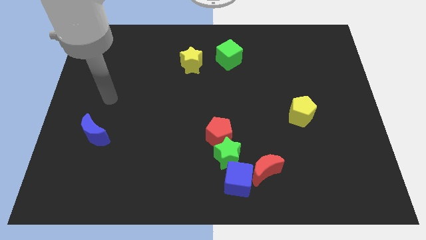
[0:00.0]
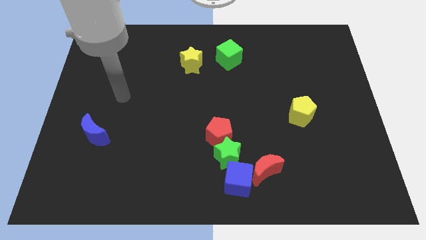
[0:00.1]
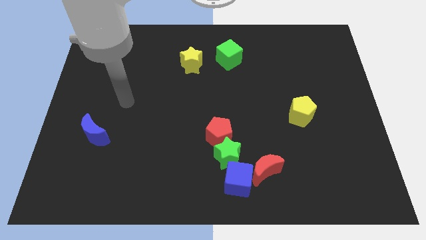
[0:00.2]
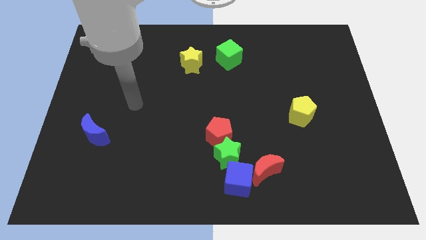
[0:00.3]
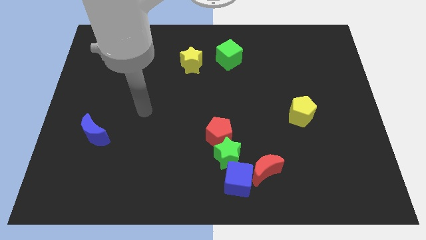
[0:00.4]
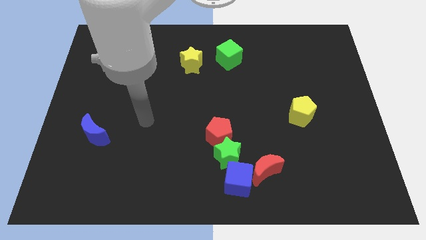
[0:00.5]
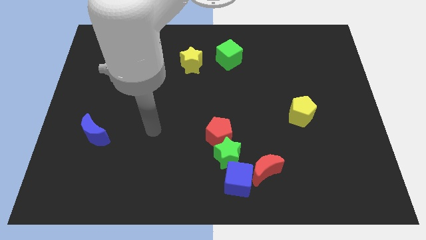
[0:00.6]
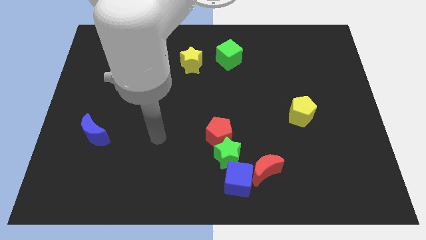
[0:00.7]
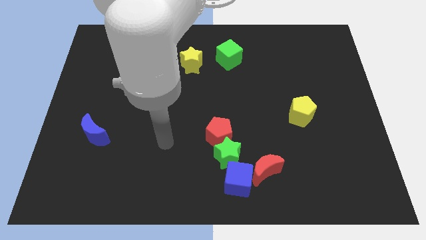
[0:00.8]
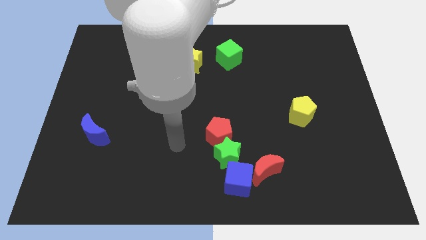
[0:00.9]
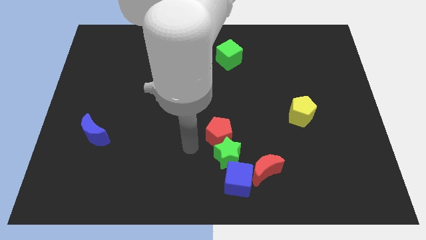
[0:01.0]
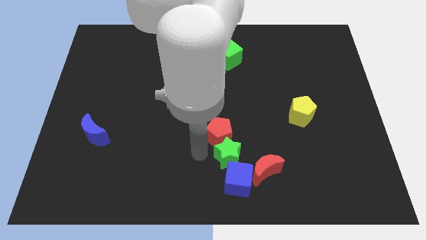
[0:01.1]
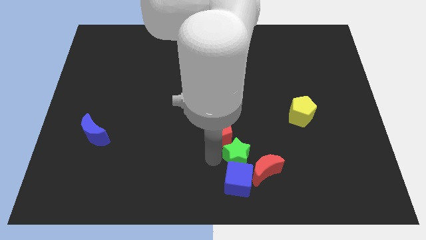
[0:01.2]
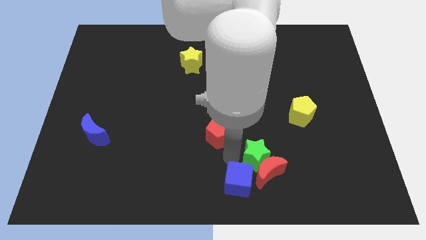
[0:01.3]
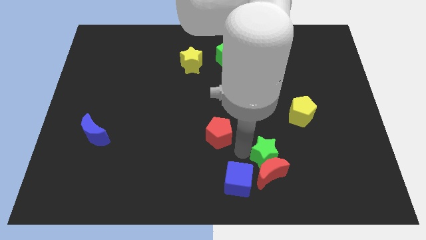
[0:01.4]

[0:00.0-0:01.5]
separate the red pentagon from the green star

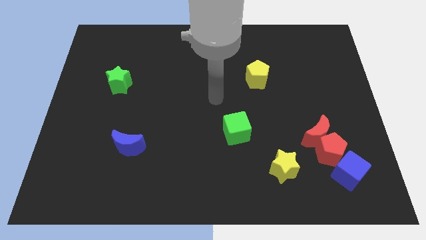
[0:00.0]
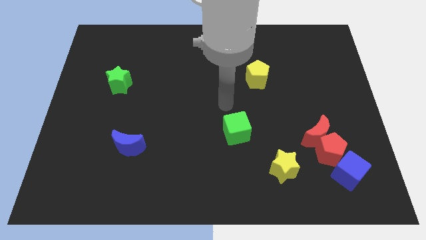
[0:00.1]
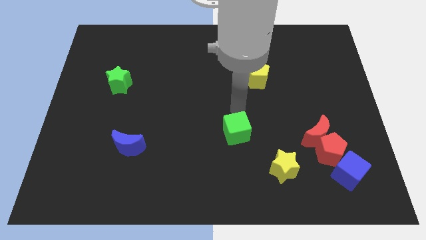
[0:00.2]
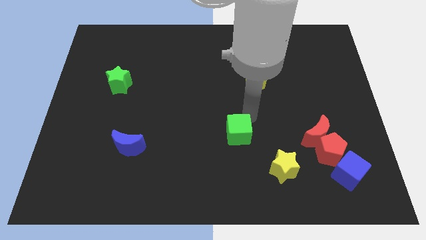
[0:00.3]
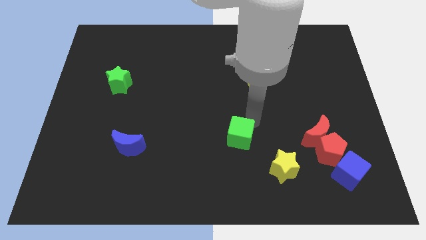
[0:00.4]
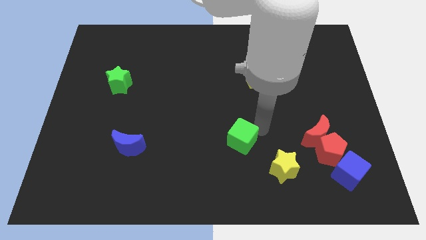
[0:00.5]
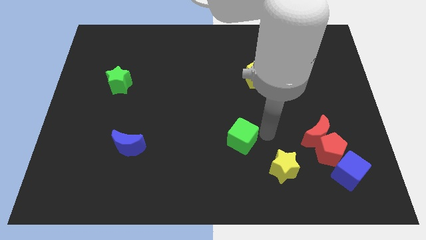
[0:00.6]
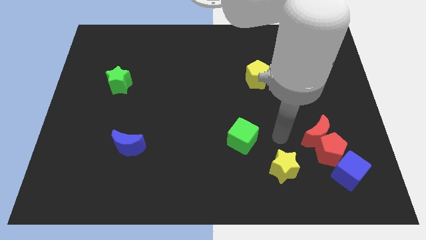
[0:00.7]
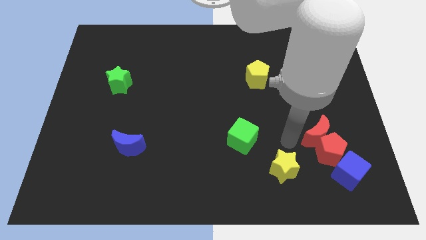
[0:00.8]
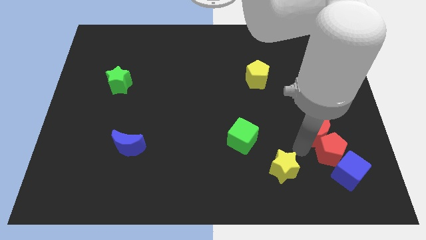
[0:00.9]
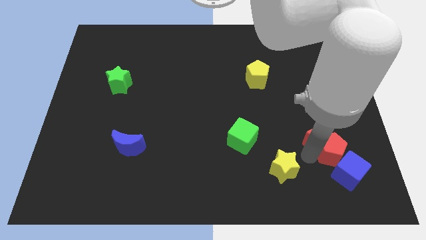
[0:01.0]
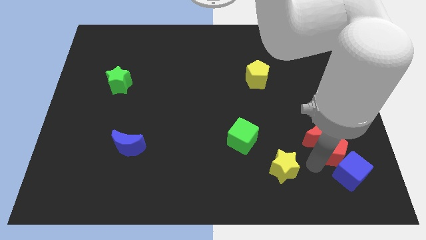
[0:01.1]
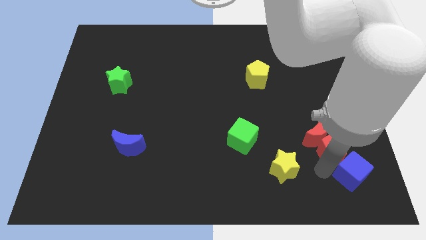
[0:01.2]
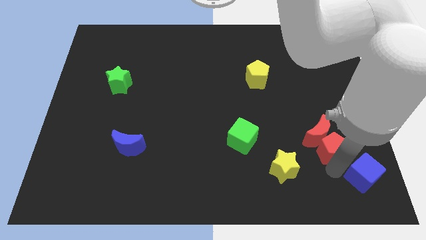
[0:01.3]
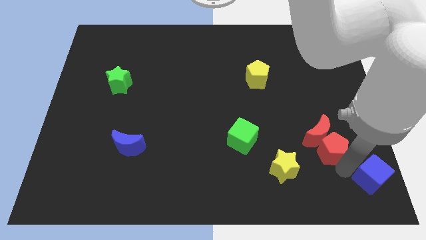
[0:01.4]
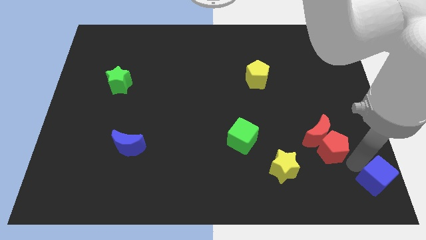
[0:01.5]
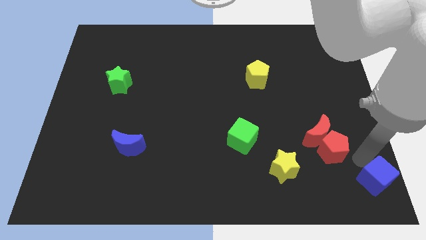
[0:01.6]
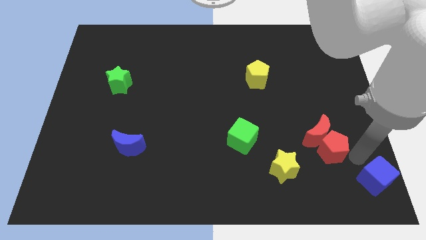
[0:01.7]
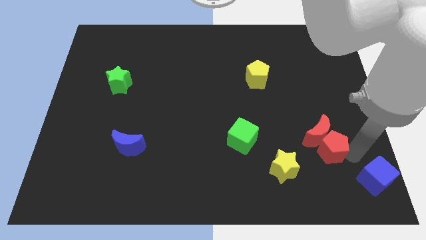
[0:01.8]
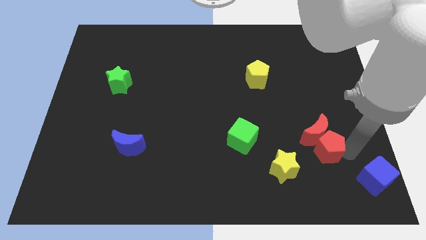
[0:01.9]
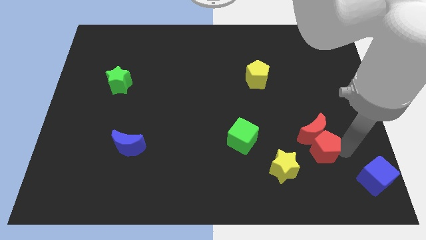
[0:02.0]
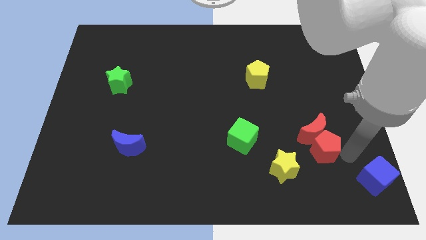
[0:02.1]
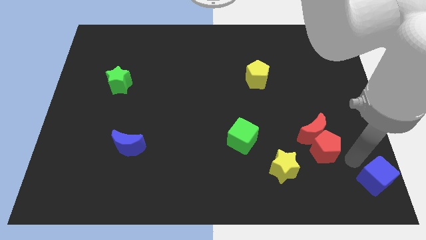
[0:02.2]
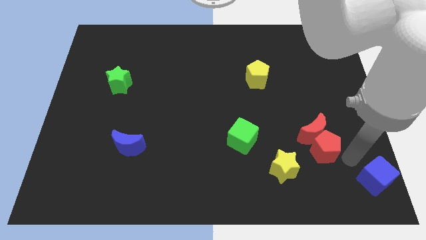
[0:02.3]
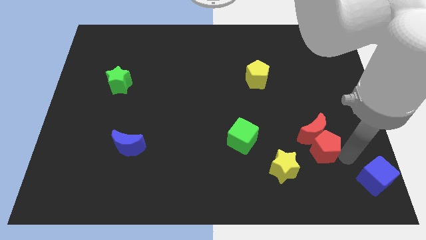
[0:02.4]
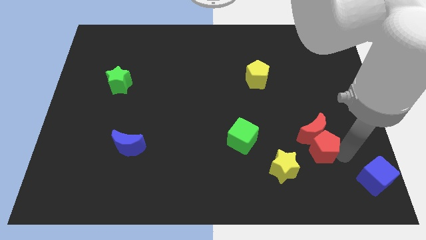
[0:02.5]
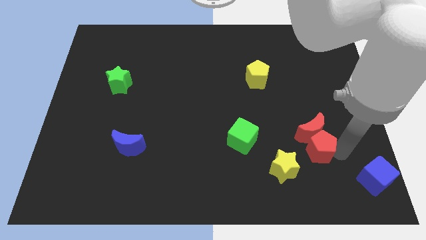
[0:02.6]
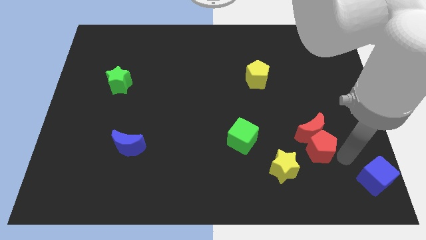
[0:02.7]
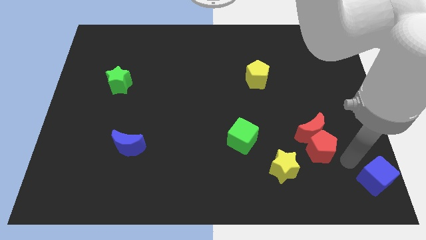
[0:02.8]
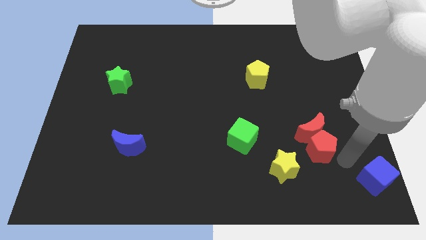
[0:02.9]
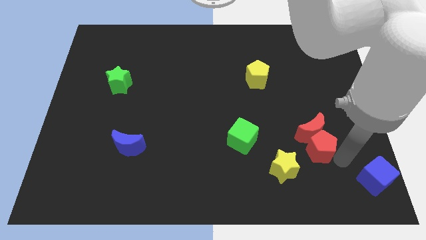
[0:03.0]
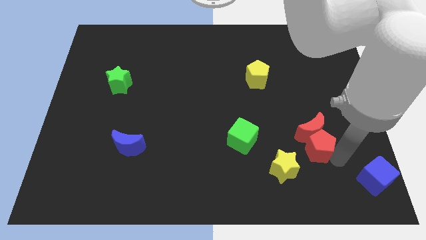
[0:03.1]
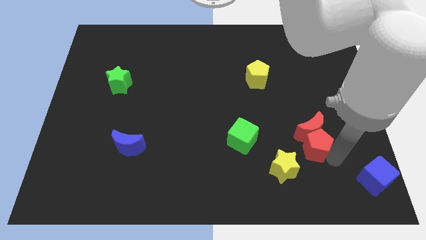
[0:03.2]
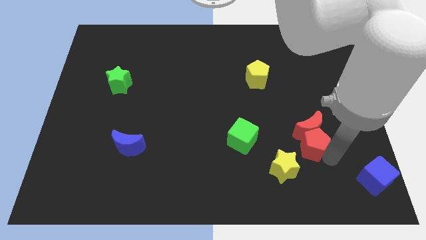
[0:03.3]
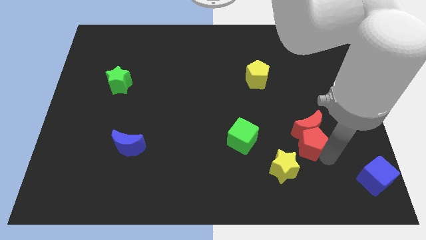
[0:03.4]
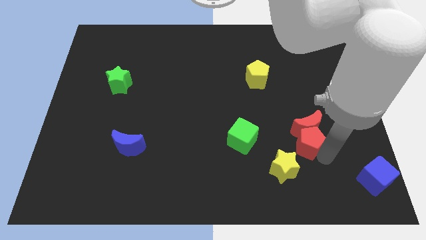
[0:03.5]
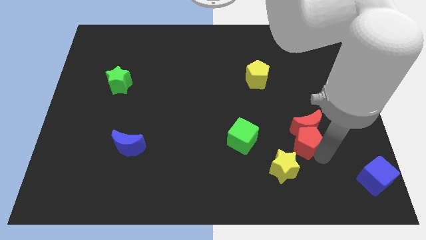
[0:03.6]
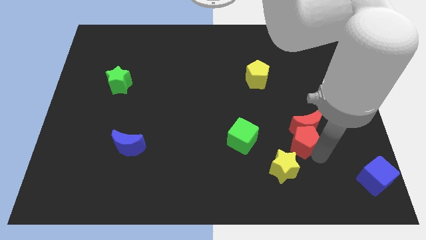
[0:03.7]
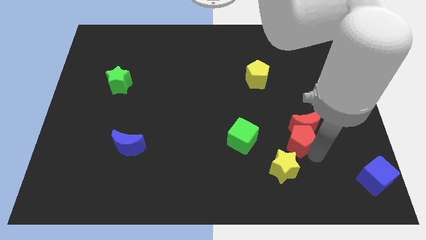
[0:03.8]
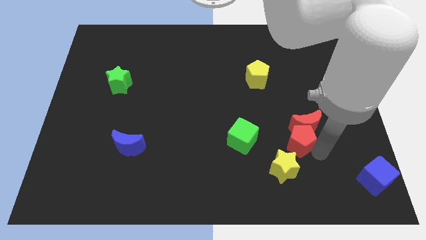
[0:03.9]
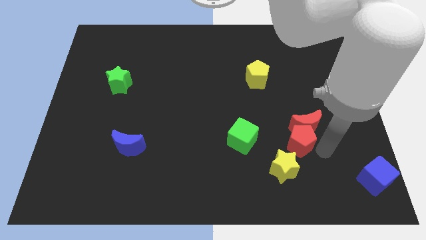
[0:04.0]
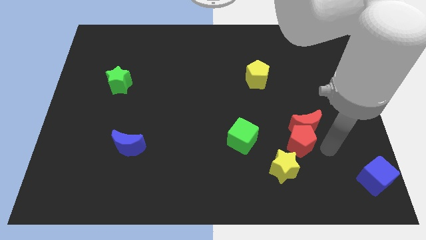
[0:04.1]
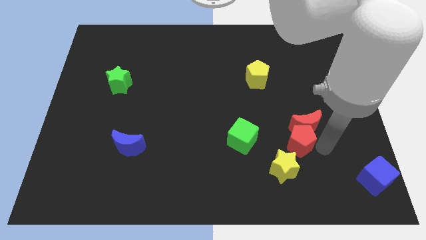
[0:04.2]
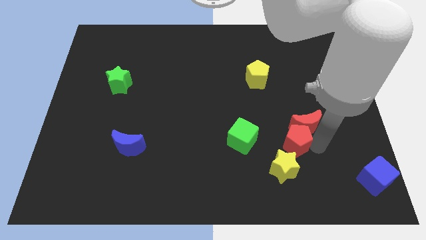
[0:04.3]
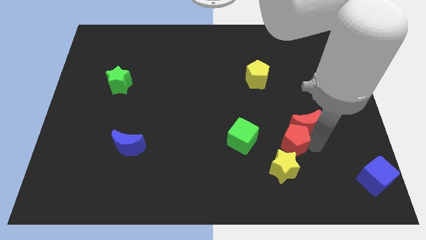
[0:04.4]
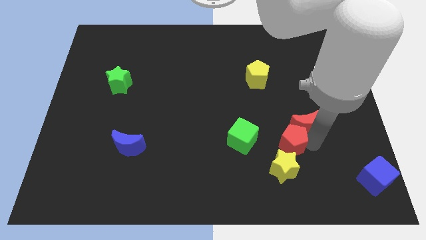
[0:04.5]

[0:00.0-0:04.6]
separate the red pentagon from the red moon and blue cube

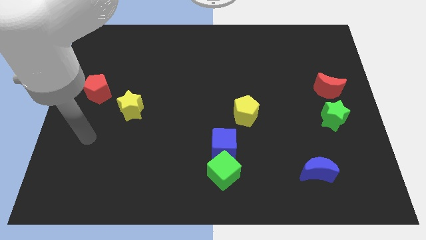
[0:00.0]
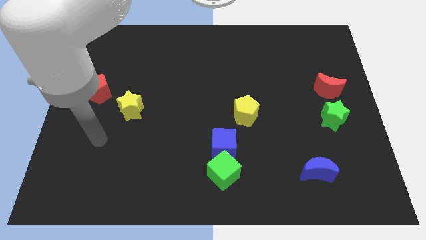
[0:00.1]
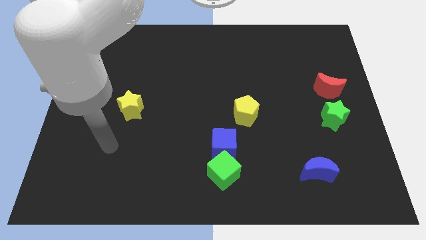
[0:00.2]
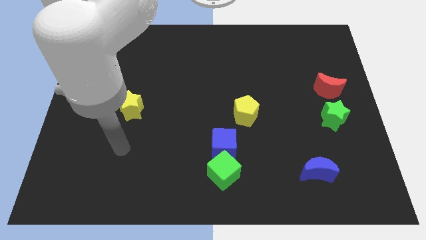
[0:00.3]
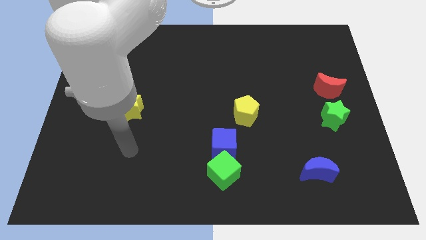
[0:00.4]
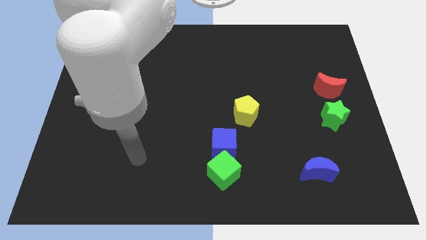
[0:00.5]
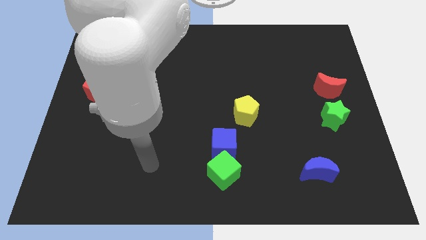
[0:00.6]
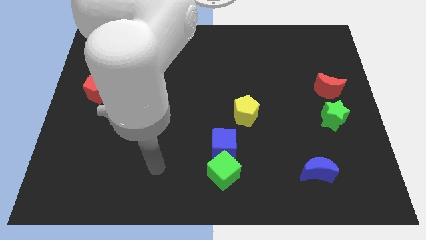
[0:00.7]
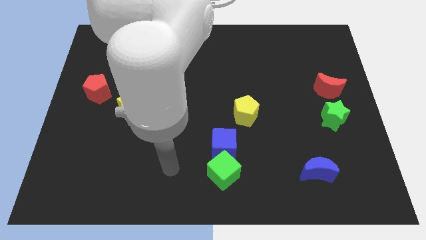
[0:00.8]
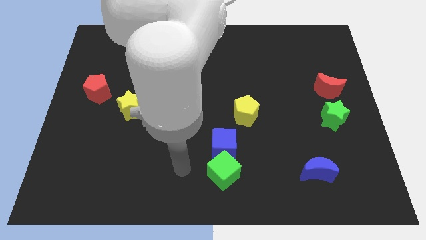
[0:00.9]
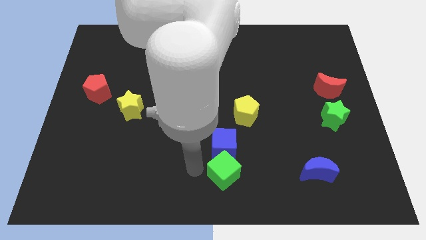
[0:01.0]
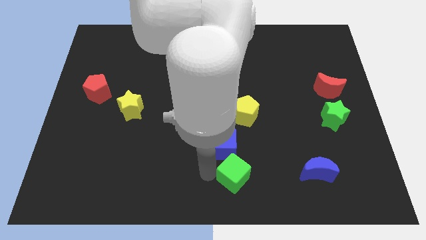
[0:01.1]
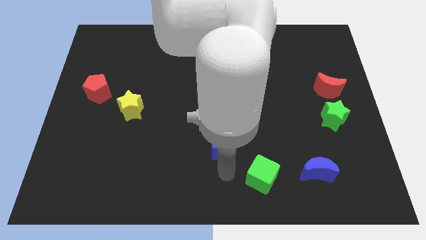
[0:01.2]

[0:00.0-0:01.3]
move the blue cube away from the green cube

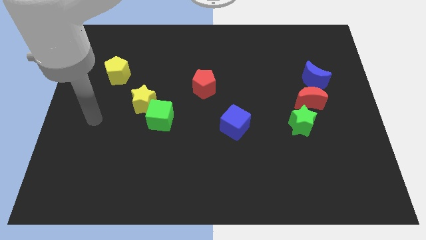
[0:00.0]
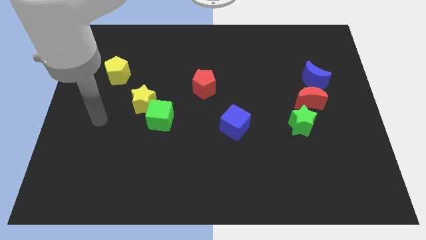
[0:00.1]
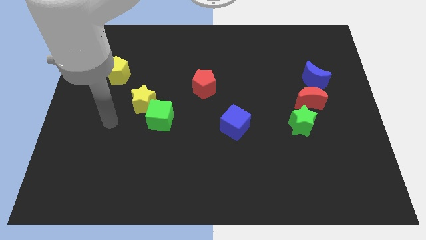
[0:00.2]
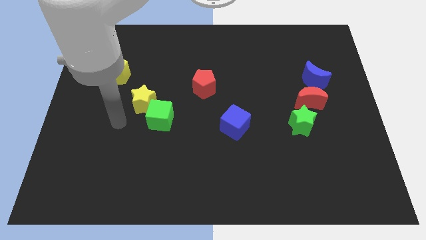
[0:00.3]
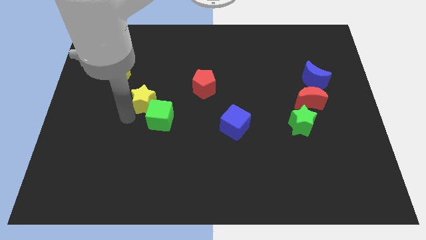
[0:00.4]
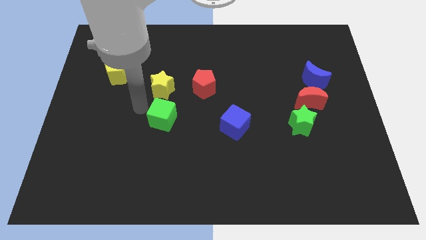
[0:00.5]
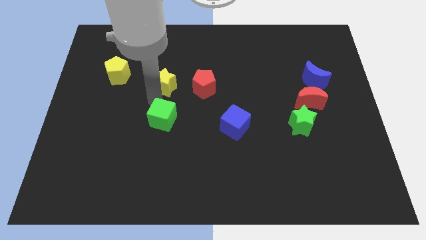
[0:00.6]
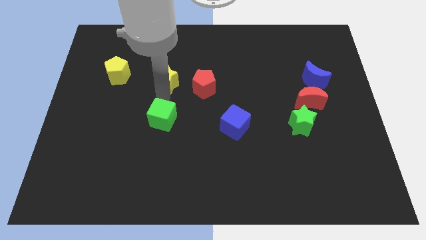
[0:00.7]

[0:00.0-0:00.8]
separate the green cube from the yellow star

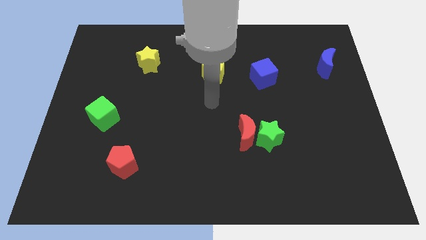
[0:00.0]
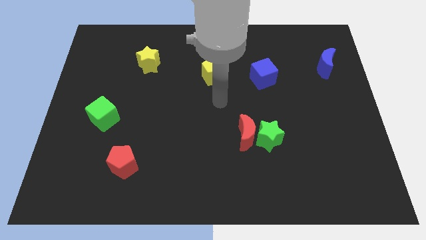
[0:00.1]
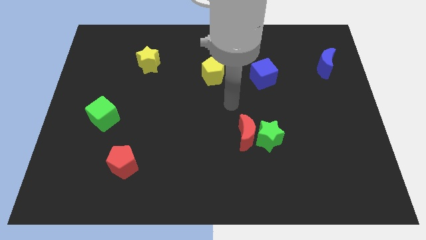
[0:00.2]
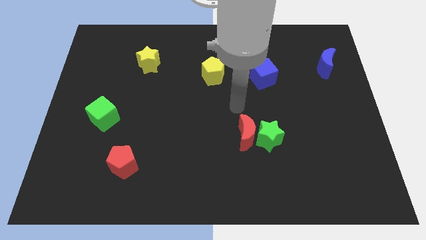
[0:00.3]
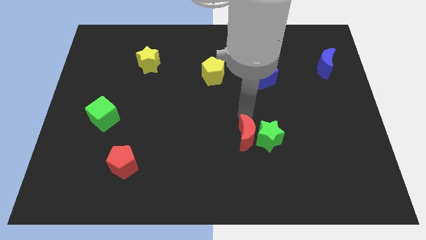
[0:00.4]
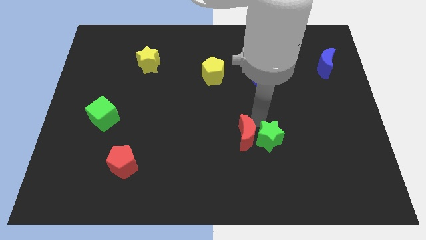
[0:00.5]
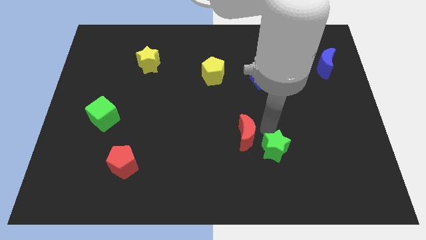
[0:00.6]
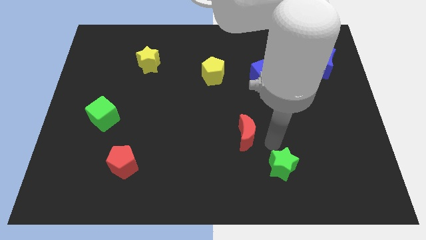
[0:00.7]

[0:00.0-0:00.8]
pull the red moon apart from the green star

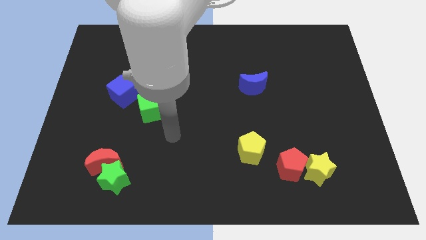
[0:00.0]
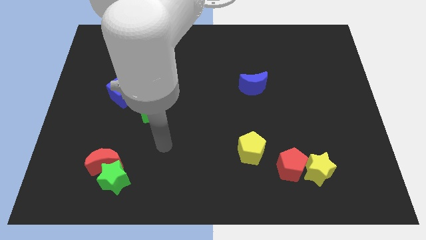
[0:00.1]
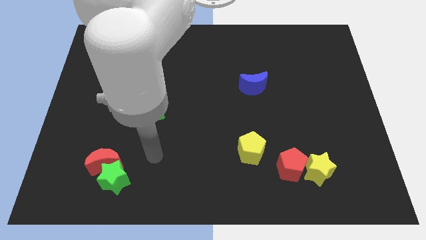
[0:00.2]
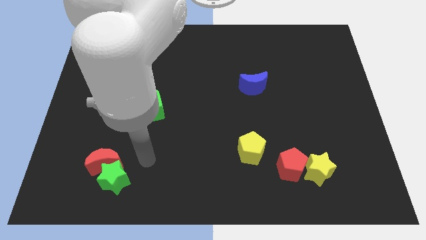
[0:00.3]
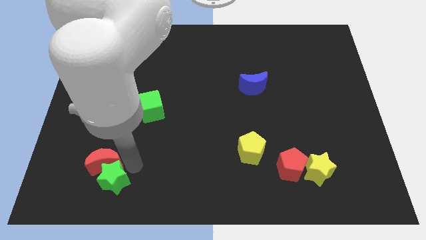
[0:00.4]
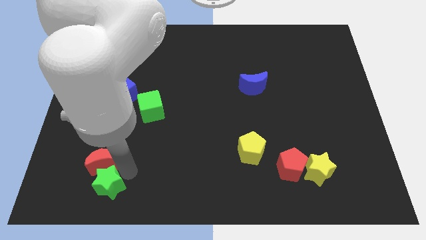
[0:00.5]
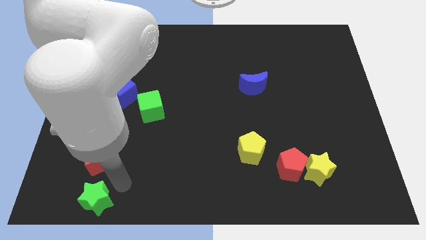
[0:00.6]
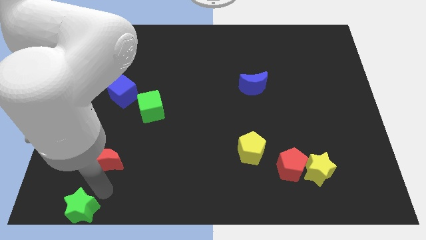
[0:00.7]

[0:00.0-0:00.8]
move the red moon away from the green star
